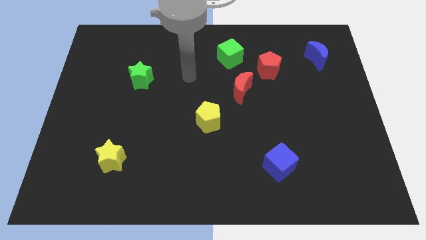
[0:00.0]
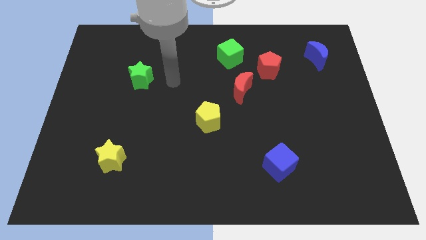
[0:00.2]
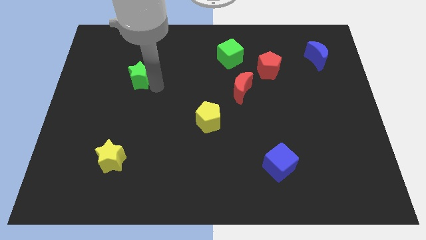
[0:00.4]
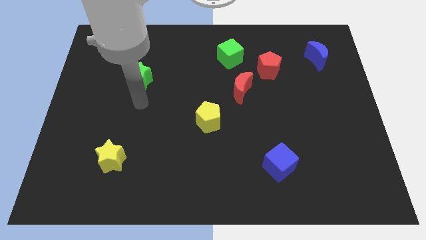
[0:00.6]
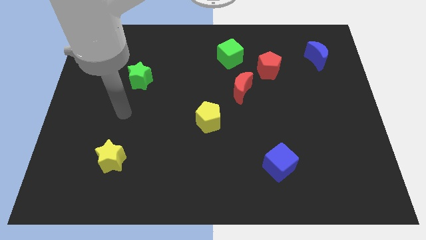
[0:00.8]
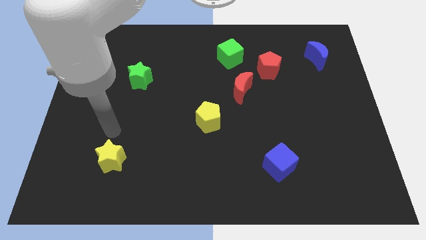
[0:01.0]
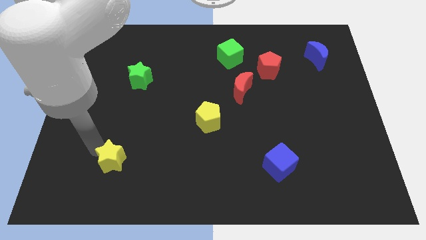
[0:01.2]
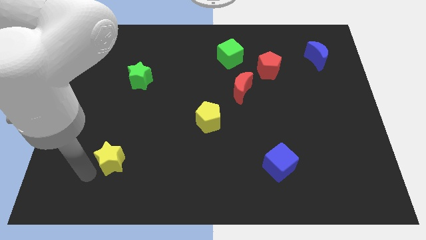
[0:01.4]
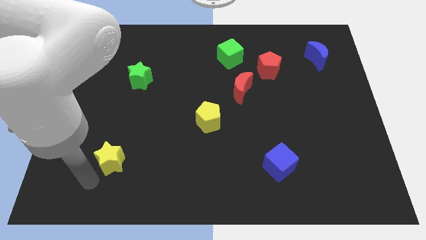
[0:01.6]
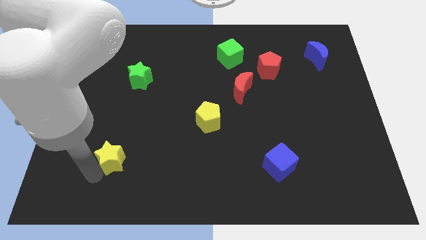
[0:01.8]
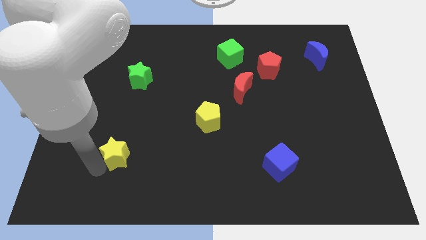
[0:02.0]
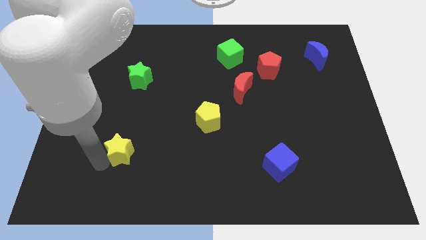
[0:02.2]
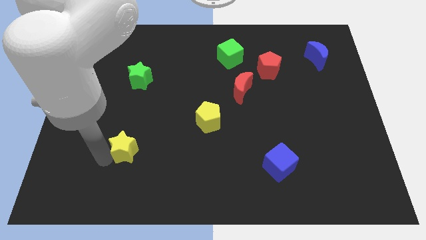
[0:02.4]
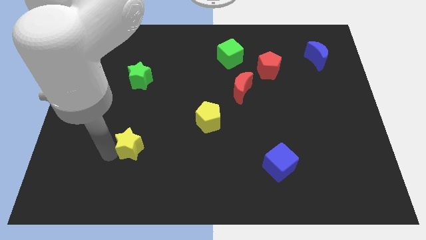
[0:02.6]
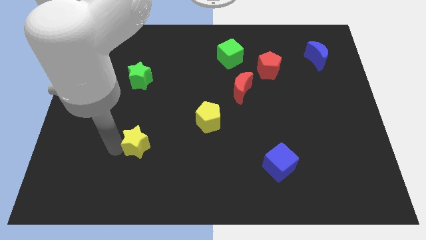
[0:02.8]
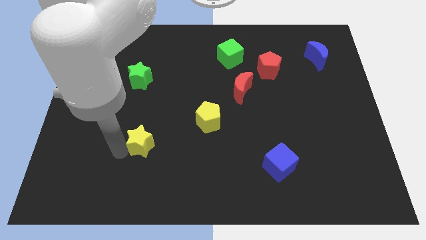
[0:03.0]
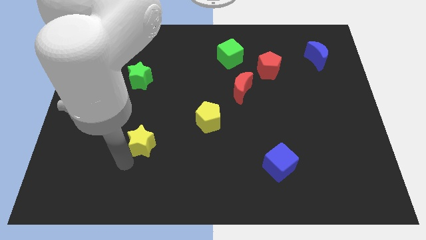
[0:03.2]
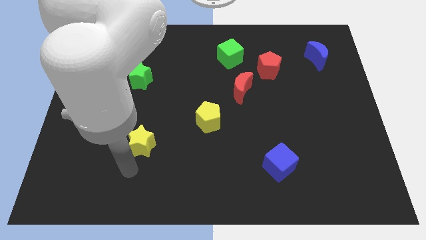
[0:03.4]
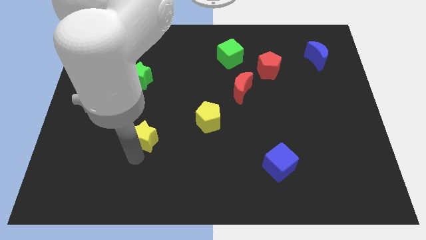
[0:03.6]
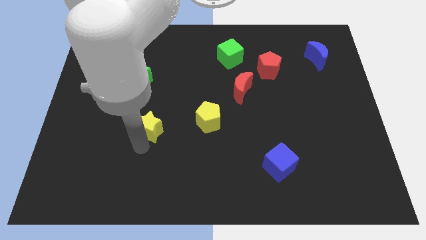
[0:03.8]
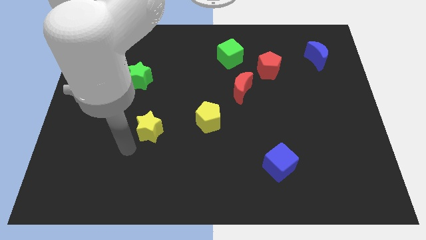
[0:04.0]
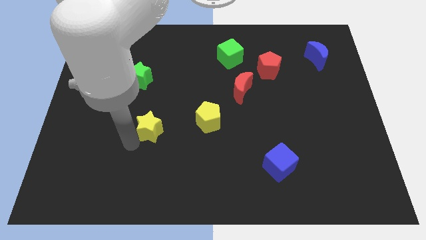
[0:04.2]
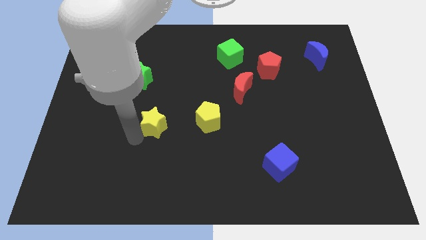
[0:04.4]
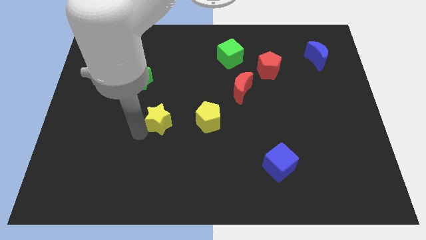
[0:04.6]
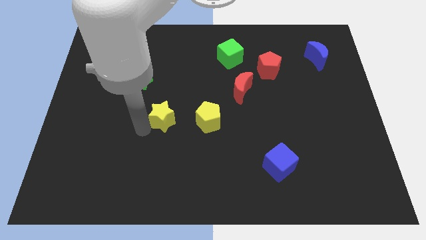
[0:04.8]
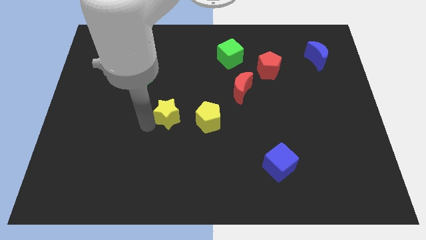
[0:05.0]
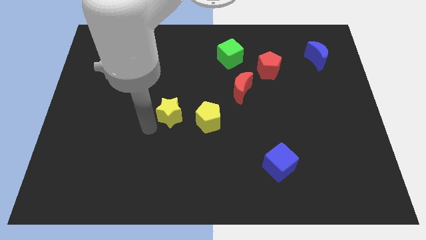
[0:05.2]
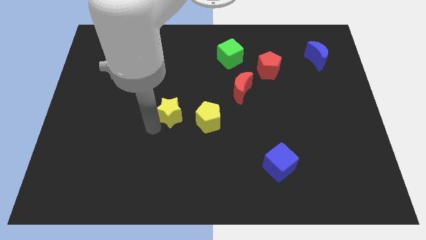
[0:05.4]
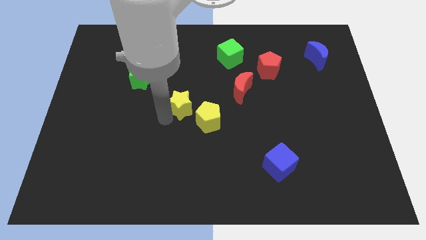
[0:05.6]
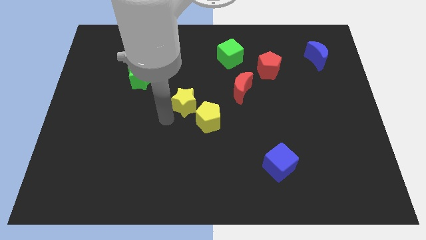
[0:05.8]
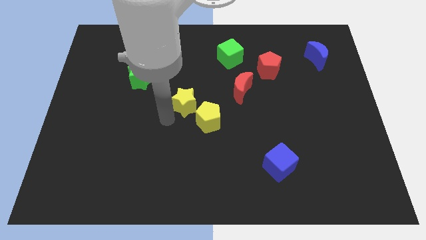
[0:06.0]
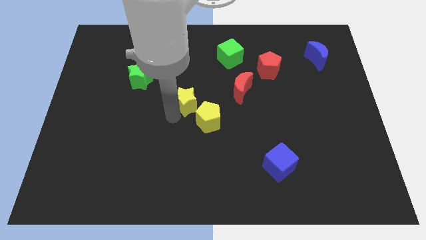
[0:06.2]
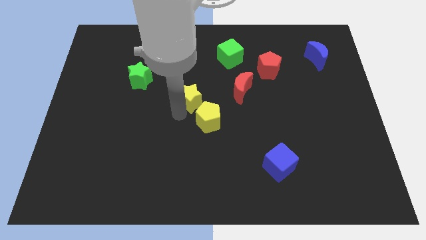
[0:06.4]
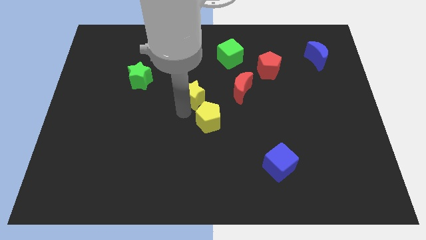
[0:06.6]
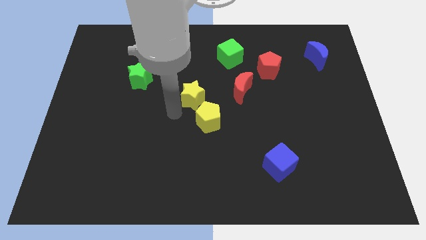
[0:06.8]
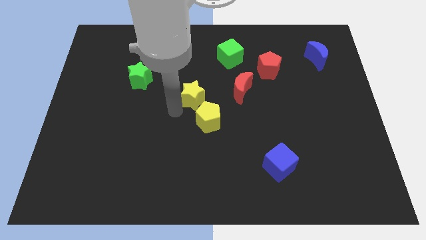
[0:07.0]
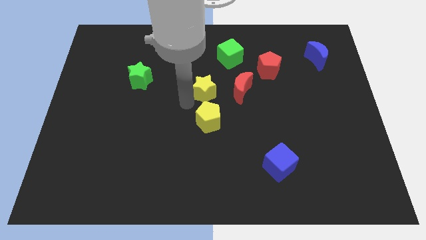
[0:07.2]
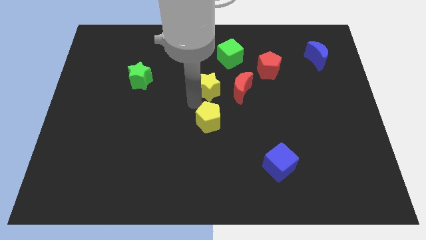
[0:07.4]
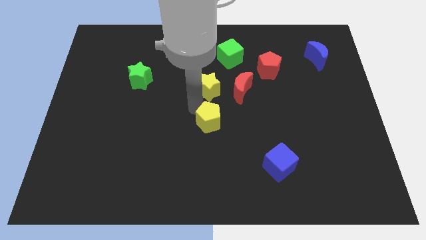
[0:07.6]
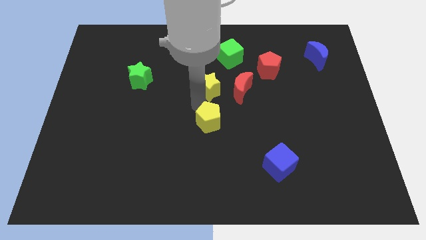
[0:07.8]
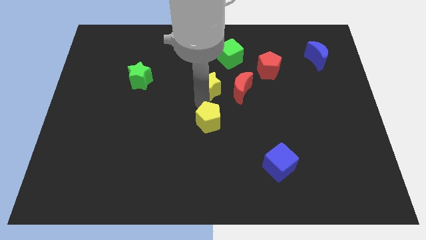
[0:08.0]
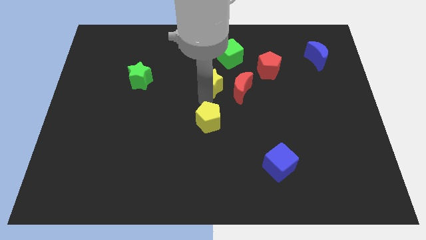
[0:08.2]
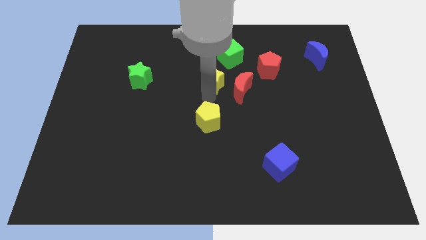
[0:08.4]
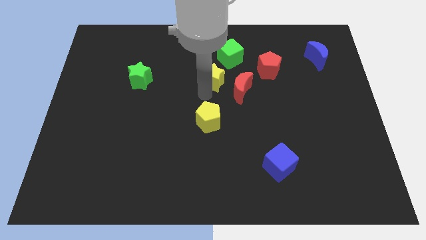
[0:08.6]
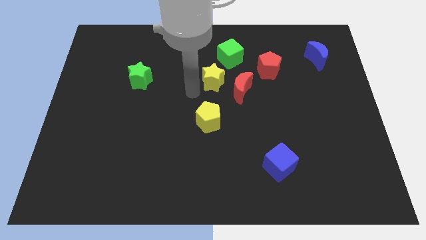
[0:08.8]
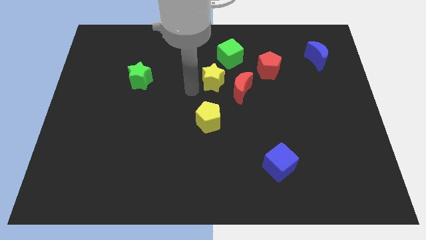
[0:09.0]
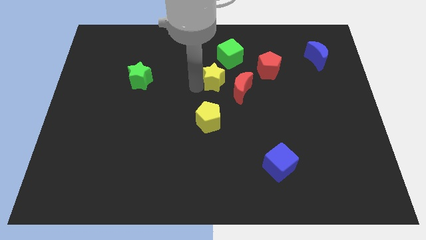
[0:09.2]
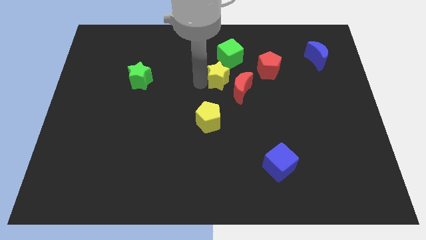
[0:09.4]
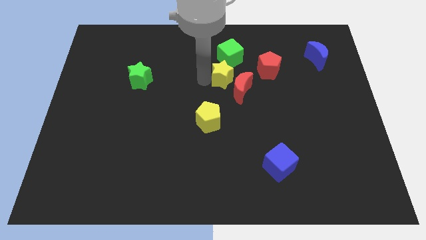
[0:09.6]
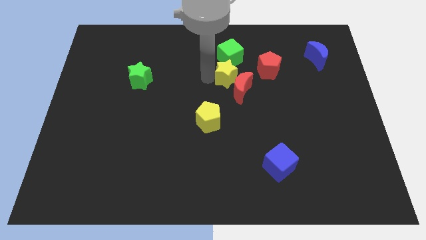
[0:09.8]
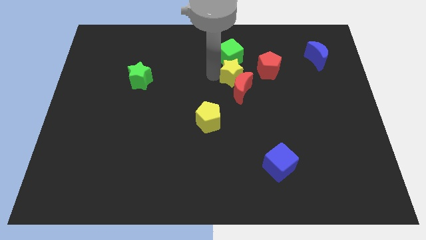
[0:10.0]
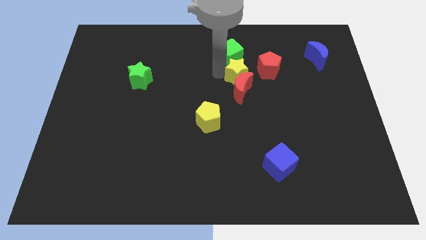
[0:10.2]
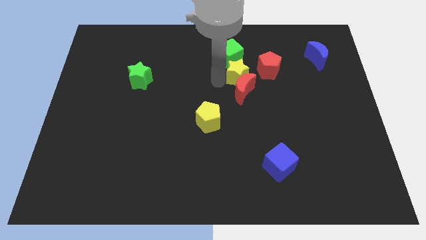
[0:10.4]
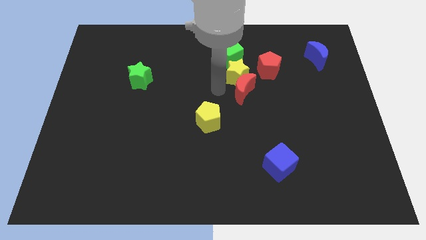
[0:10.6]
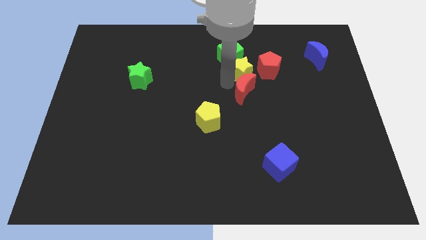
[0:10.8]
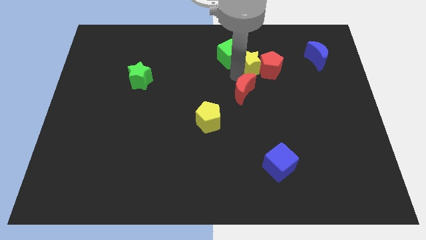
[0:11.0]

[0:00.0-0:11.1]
push the yellow star to the right side of the green cube

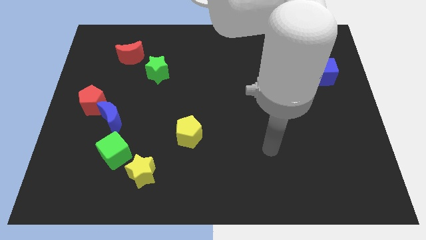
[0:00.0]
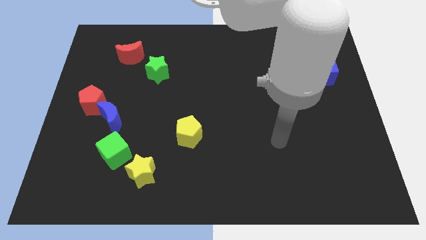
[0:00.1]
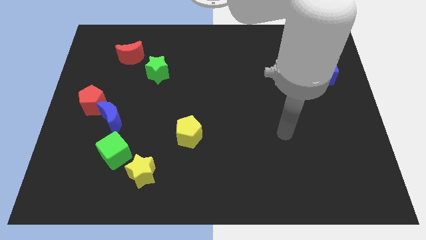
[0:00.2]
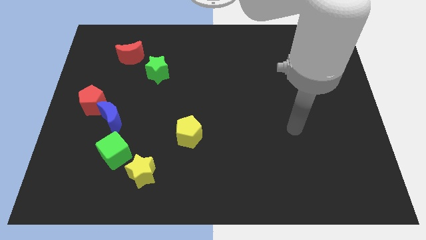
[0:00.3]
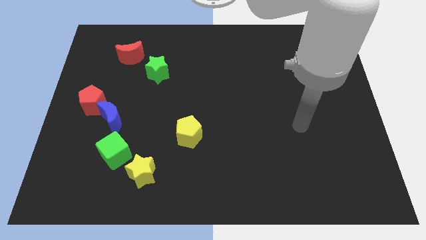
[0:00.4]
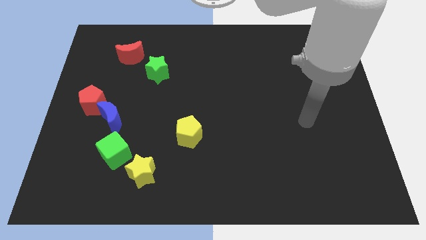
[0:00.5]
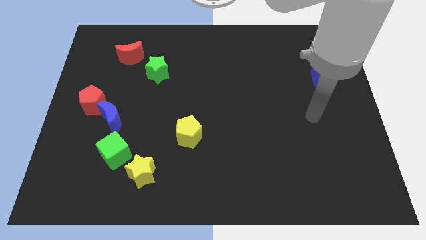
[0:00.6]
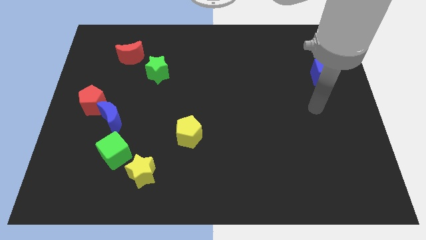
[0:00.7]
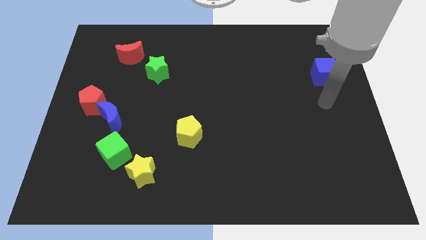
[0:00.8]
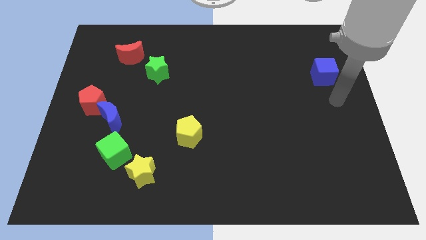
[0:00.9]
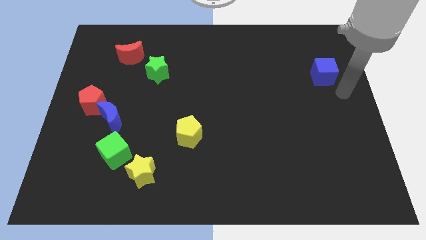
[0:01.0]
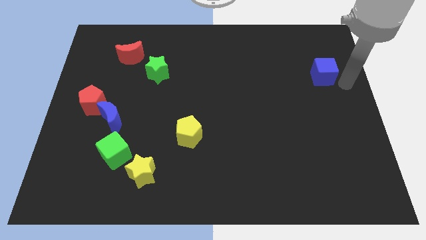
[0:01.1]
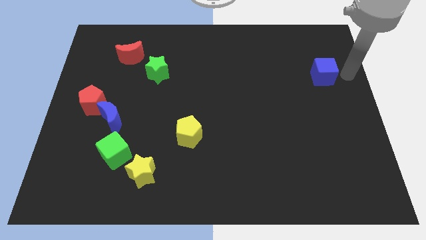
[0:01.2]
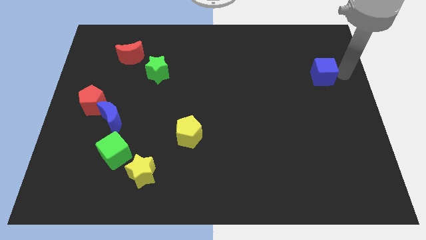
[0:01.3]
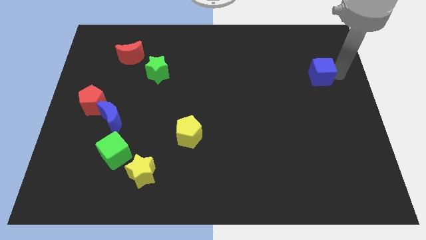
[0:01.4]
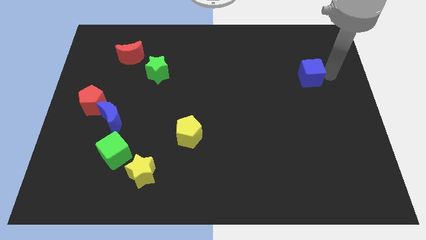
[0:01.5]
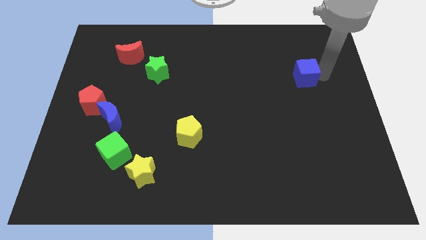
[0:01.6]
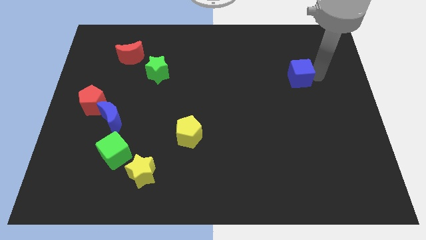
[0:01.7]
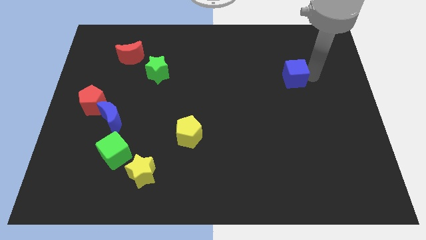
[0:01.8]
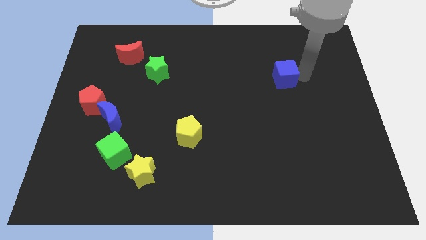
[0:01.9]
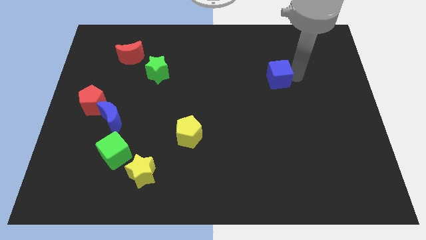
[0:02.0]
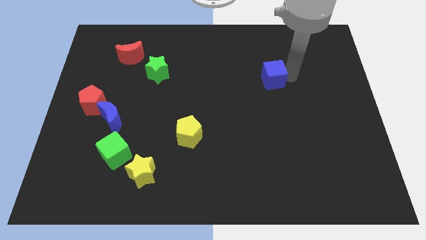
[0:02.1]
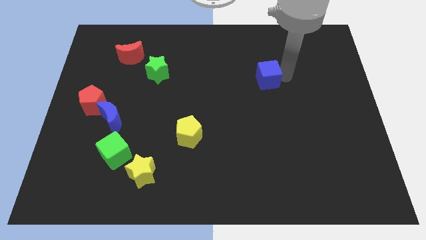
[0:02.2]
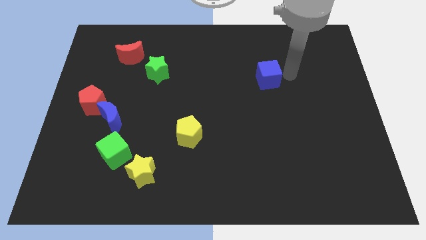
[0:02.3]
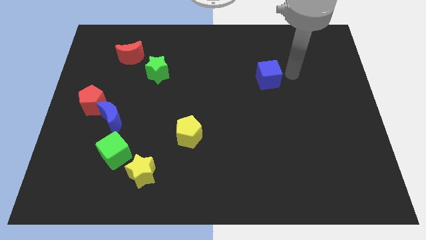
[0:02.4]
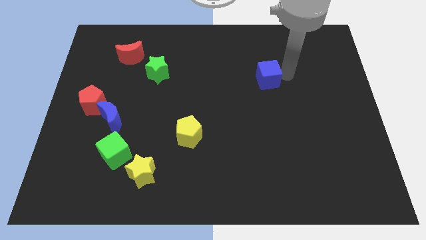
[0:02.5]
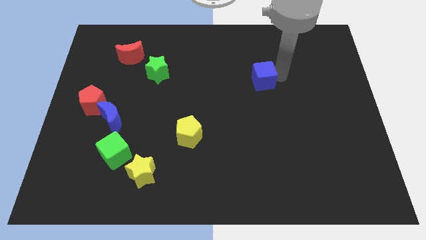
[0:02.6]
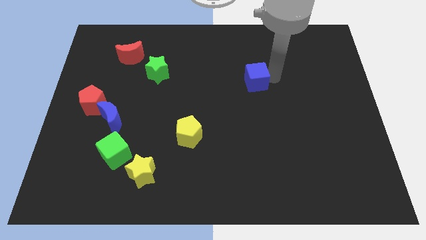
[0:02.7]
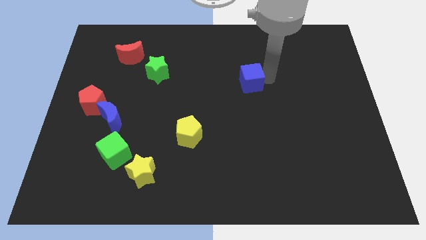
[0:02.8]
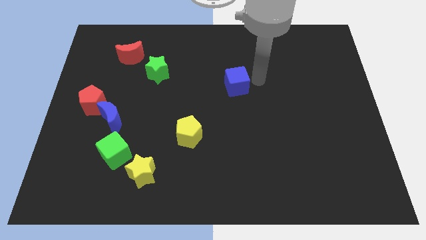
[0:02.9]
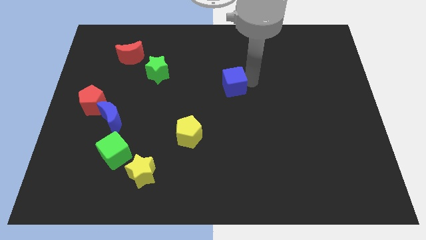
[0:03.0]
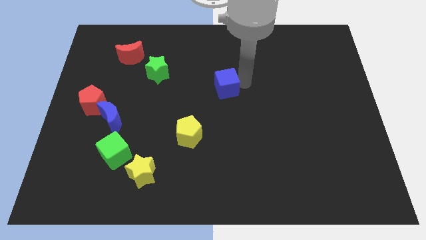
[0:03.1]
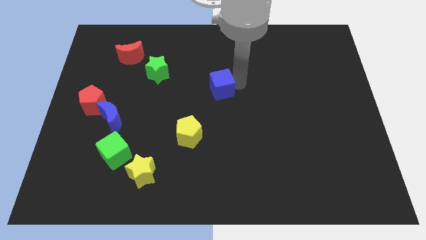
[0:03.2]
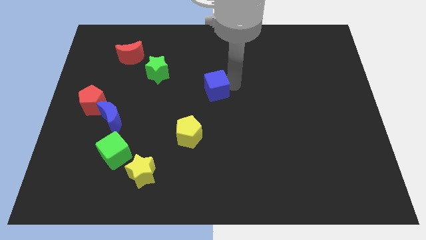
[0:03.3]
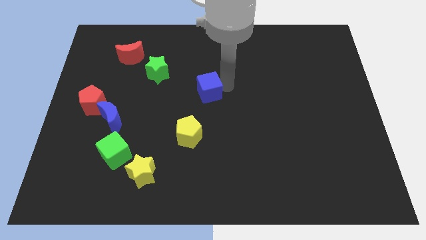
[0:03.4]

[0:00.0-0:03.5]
move the blue cube above the yellow pentagon
